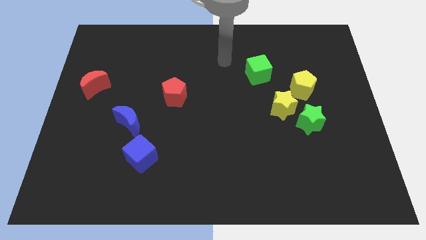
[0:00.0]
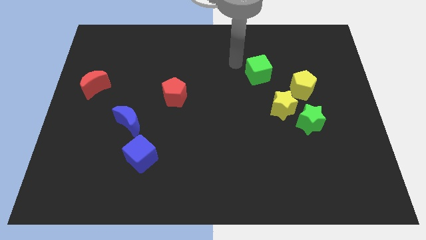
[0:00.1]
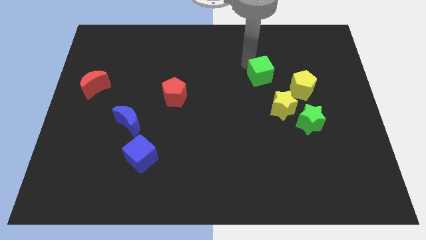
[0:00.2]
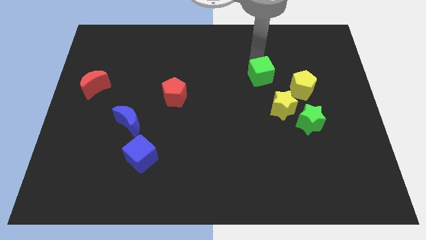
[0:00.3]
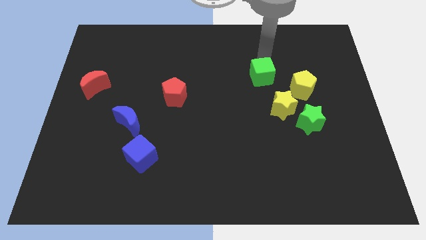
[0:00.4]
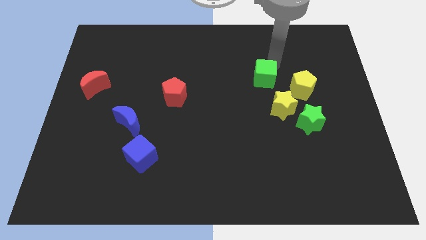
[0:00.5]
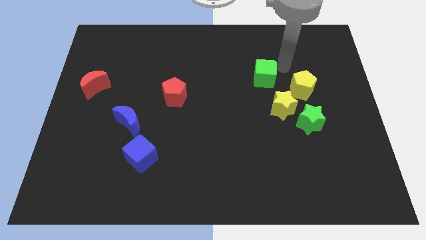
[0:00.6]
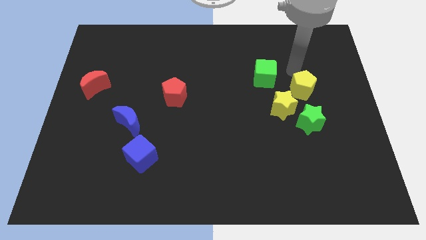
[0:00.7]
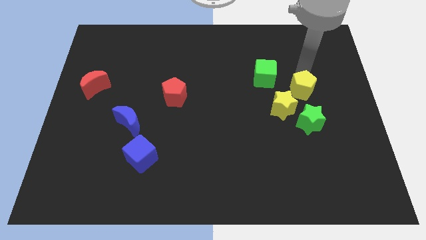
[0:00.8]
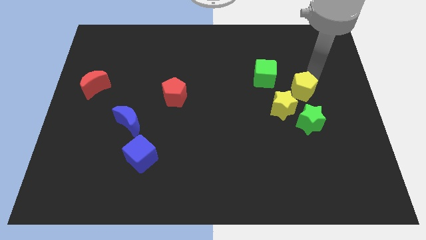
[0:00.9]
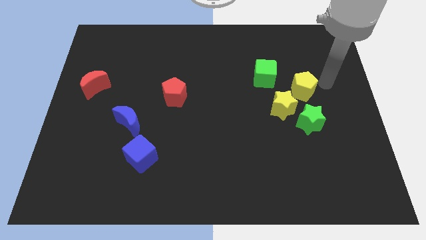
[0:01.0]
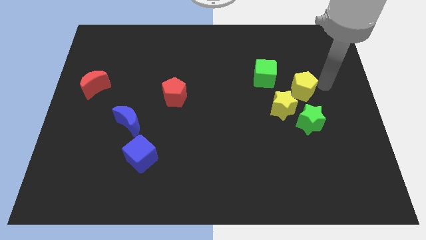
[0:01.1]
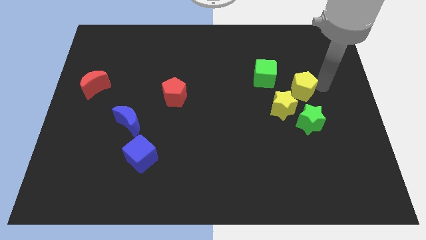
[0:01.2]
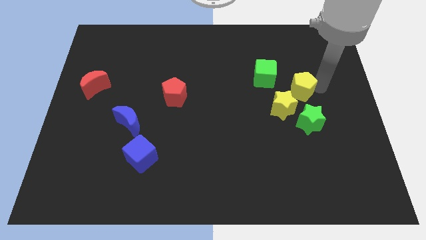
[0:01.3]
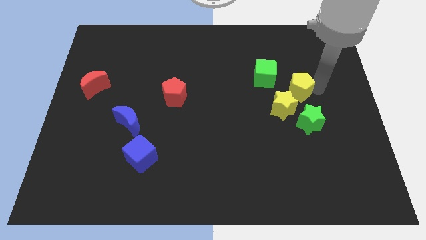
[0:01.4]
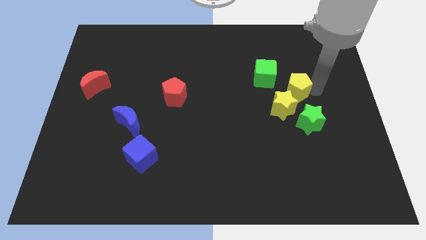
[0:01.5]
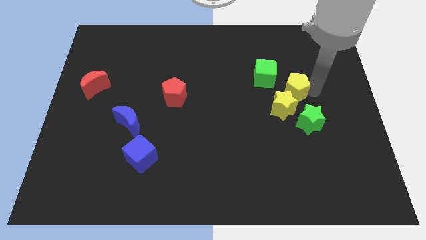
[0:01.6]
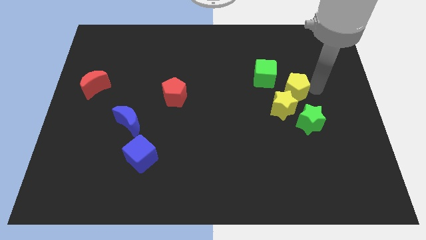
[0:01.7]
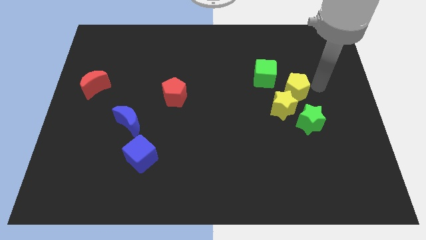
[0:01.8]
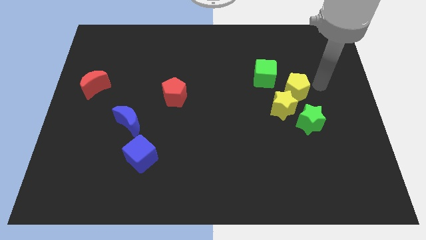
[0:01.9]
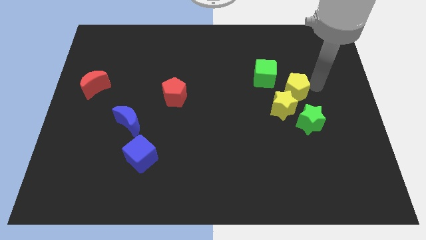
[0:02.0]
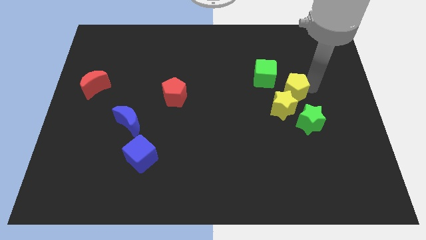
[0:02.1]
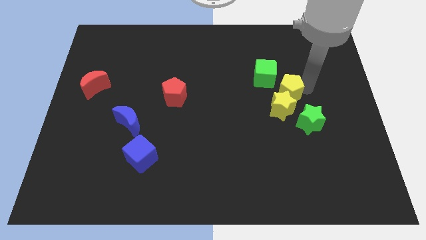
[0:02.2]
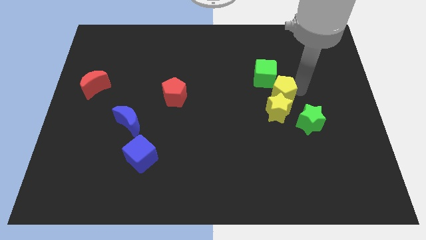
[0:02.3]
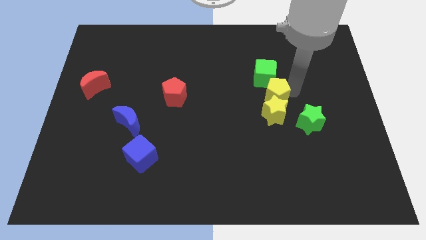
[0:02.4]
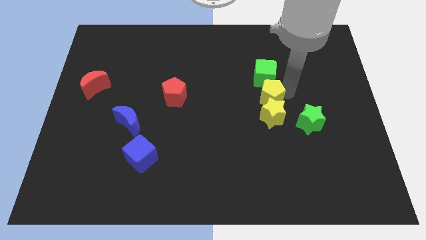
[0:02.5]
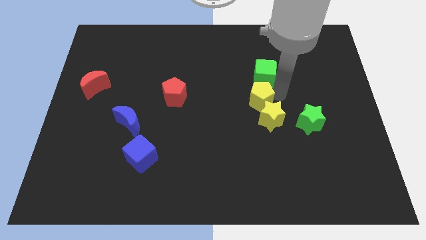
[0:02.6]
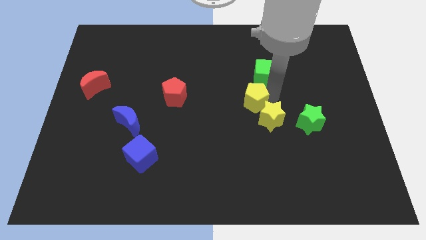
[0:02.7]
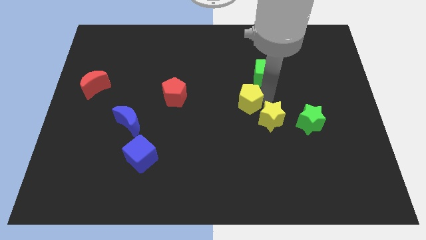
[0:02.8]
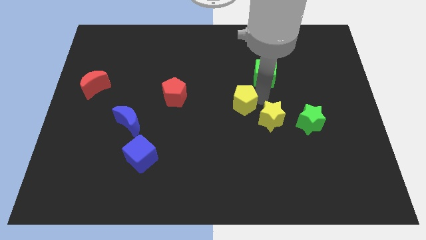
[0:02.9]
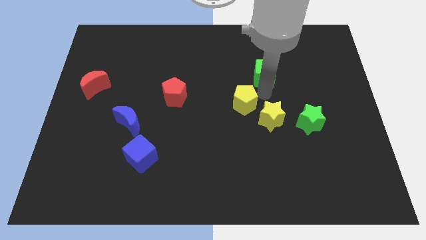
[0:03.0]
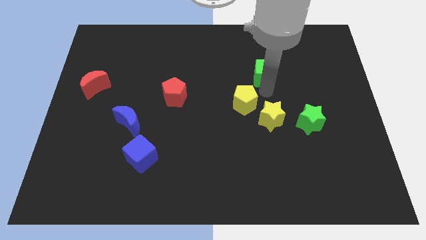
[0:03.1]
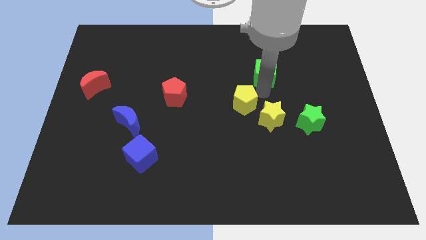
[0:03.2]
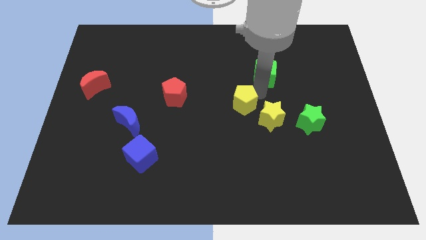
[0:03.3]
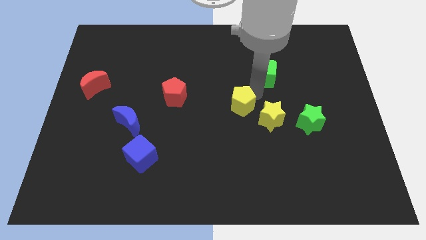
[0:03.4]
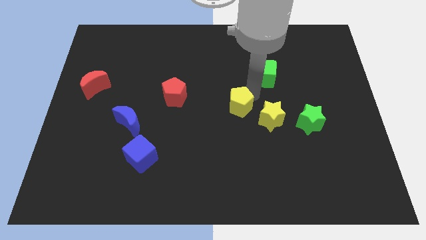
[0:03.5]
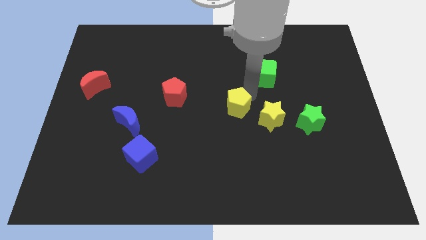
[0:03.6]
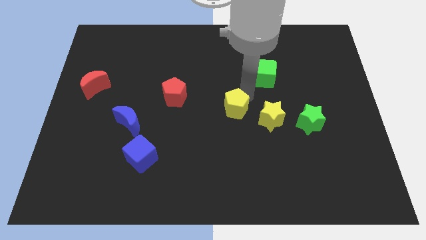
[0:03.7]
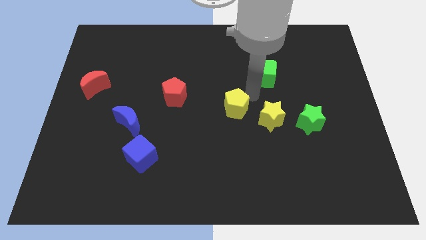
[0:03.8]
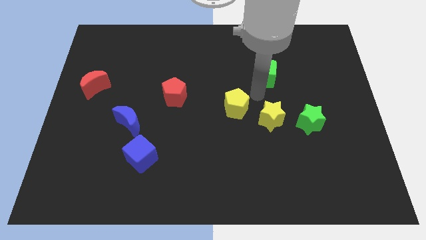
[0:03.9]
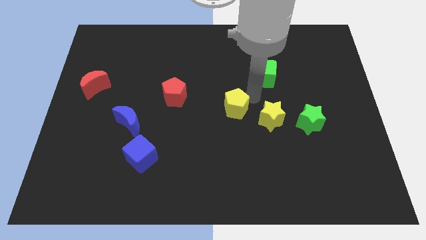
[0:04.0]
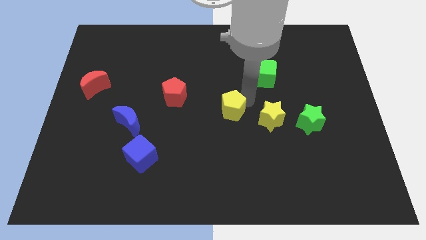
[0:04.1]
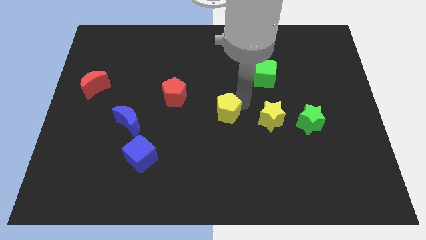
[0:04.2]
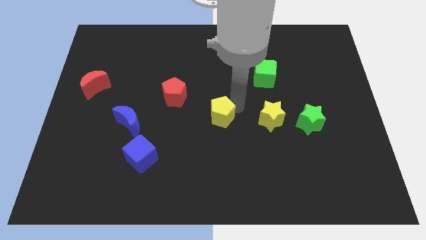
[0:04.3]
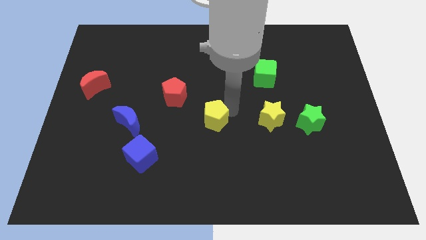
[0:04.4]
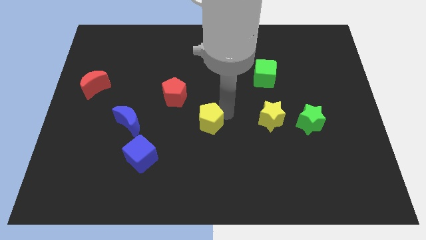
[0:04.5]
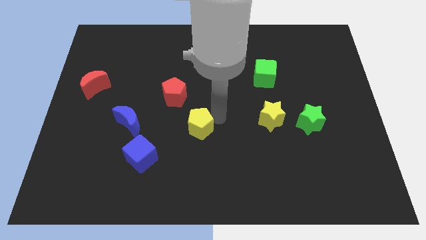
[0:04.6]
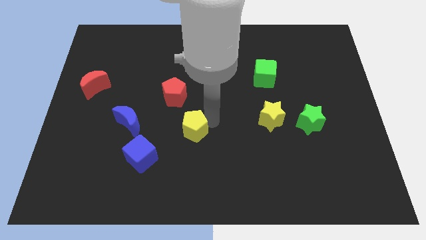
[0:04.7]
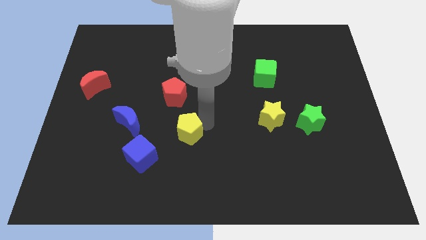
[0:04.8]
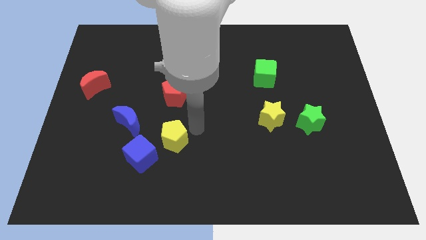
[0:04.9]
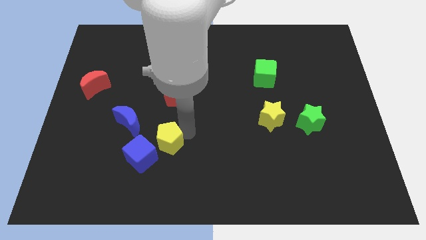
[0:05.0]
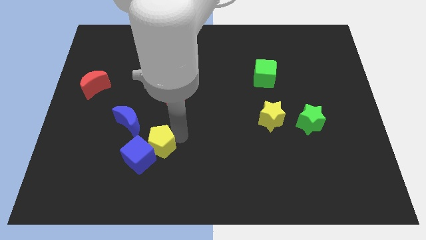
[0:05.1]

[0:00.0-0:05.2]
put the yellow pentagon to the blue cube

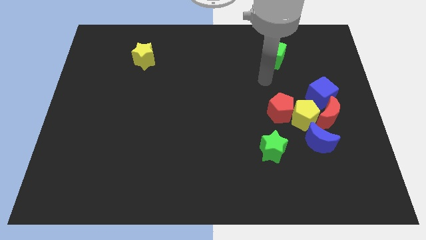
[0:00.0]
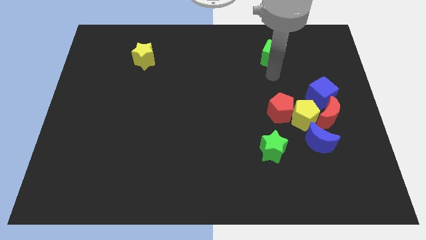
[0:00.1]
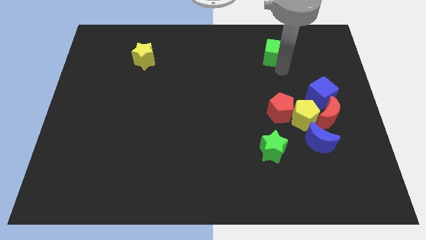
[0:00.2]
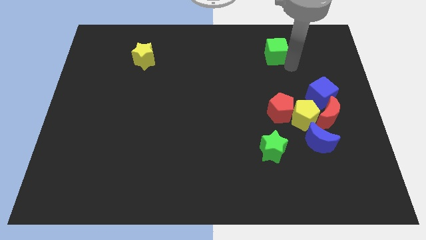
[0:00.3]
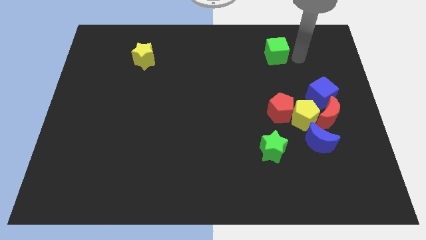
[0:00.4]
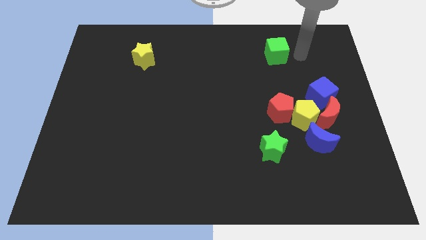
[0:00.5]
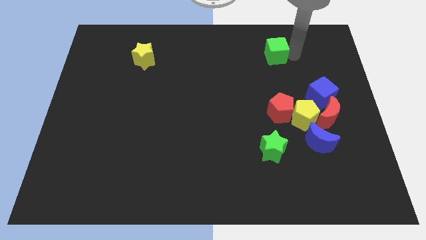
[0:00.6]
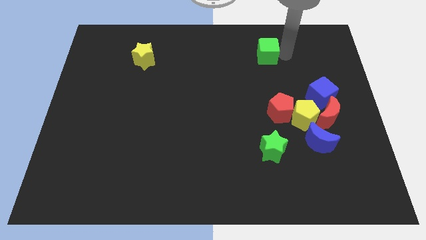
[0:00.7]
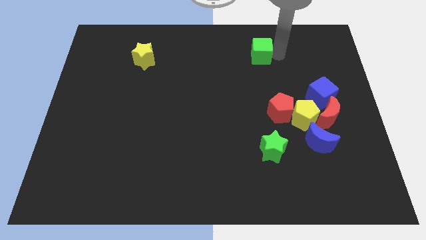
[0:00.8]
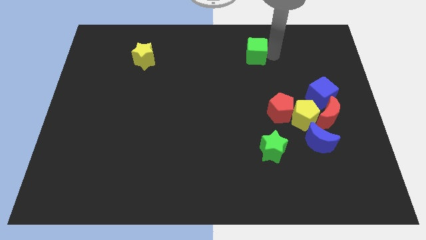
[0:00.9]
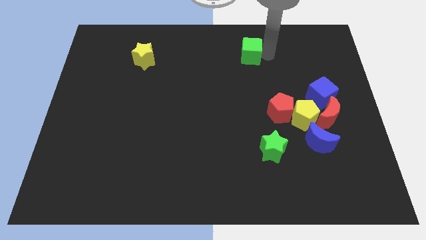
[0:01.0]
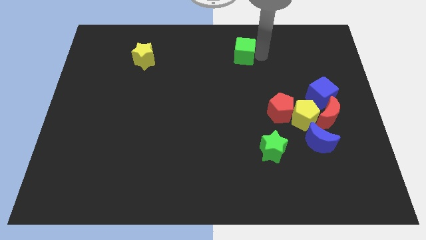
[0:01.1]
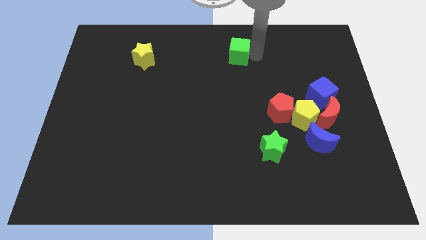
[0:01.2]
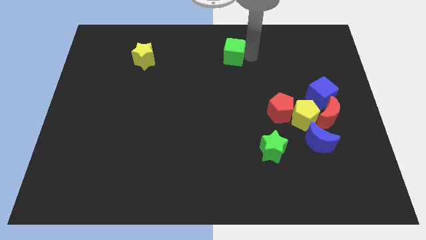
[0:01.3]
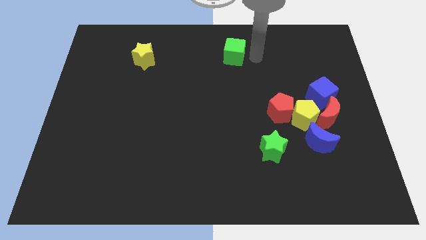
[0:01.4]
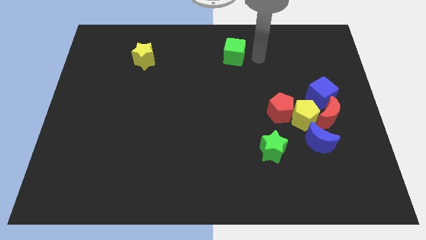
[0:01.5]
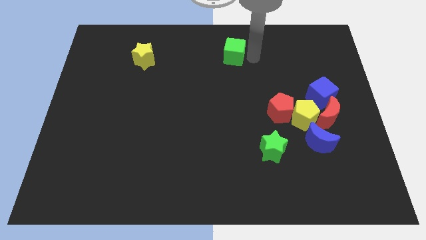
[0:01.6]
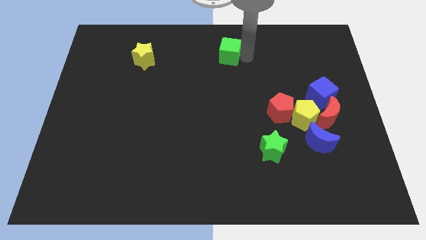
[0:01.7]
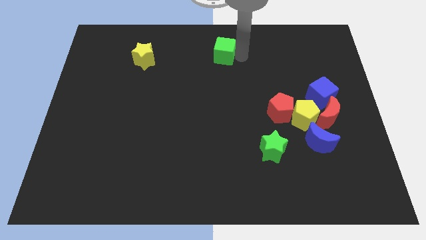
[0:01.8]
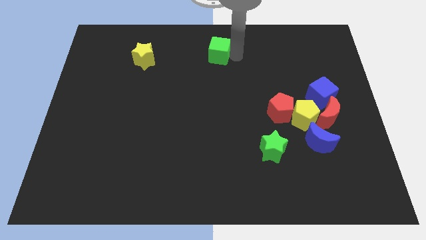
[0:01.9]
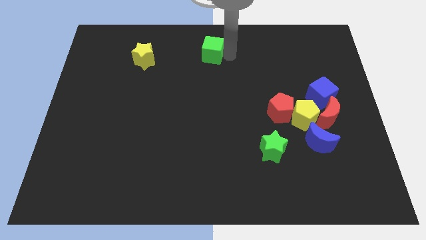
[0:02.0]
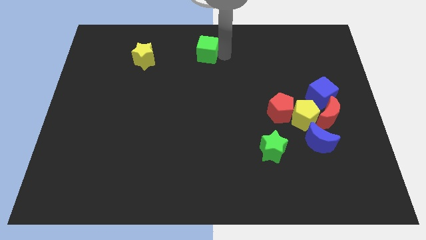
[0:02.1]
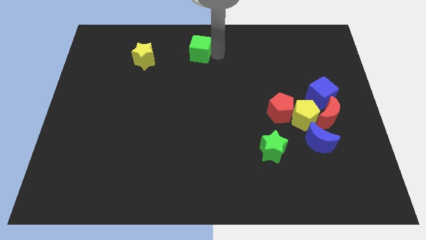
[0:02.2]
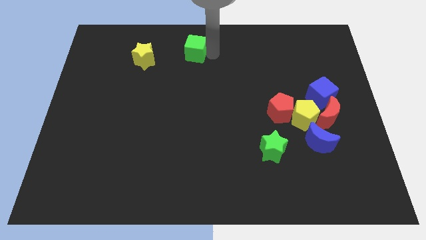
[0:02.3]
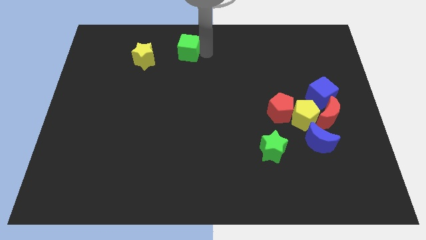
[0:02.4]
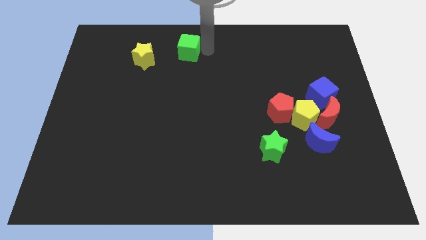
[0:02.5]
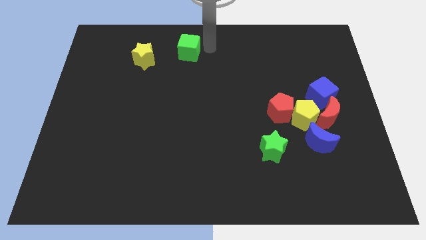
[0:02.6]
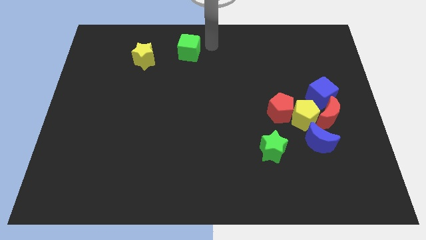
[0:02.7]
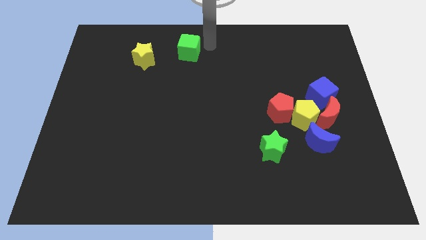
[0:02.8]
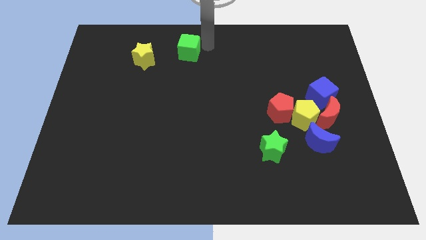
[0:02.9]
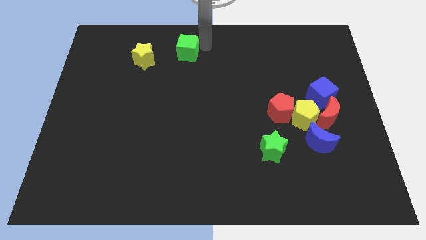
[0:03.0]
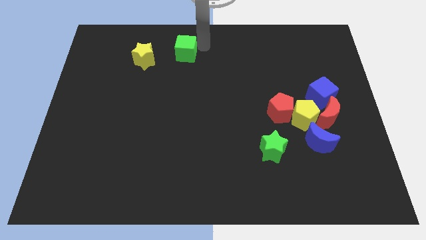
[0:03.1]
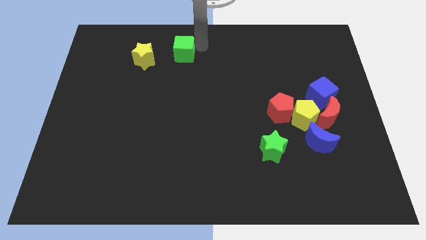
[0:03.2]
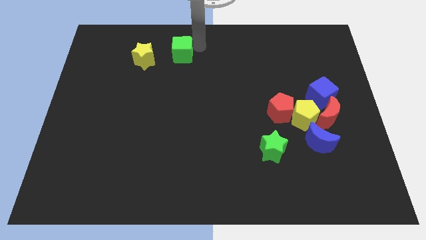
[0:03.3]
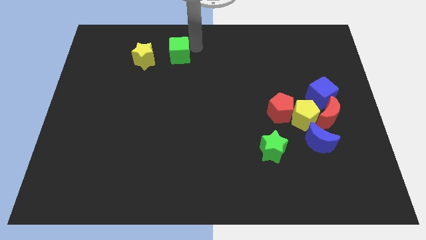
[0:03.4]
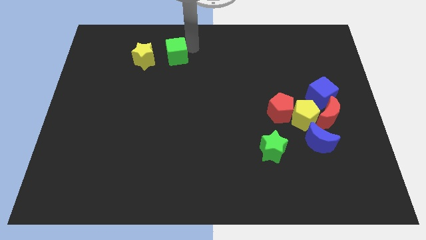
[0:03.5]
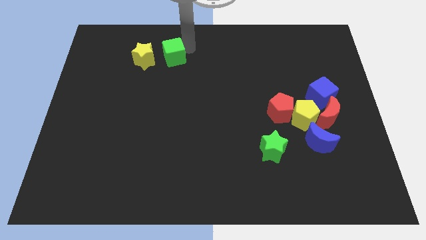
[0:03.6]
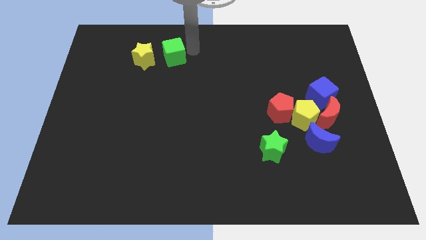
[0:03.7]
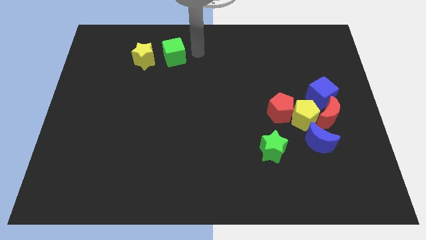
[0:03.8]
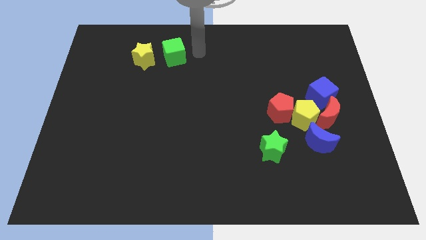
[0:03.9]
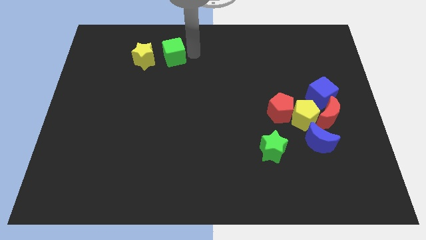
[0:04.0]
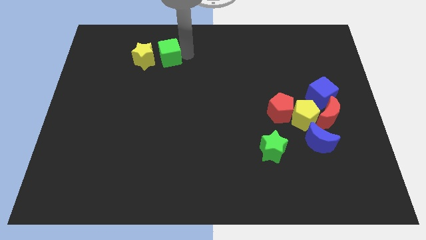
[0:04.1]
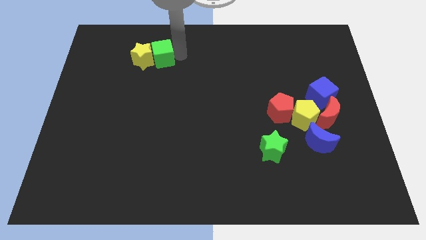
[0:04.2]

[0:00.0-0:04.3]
put the green cube close to the yellow star
